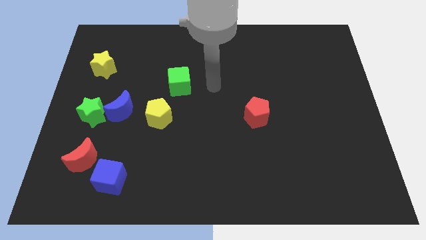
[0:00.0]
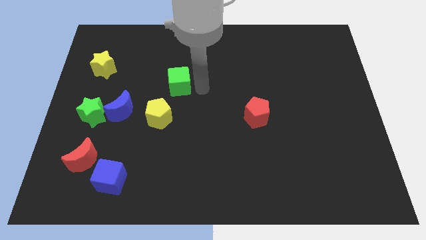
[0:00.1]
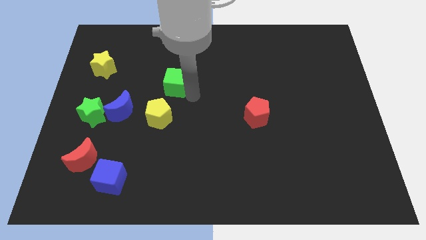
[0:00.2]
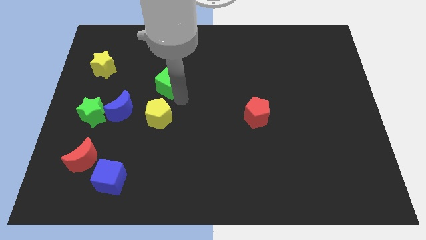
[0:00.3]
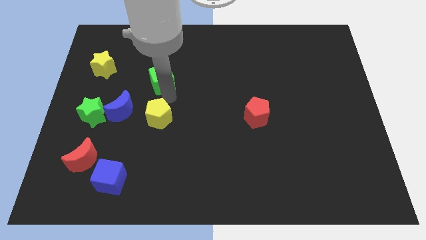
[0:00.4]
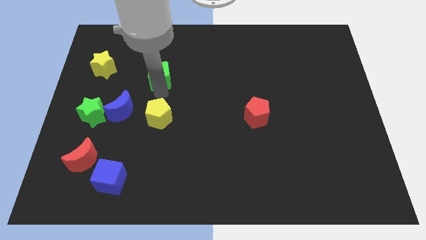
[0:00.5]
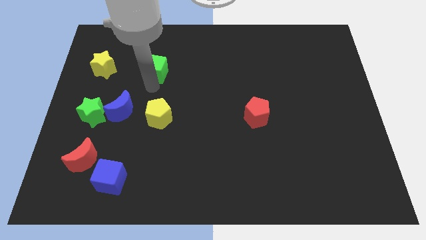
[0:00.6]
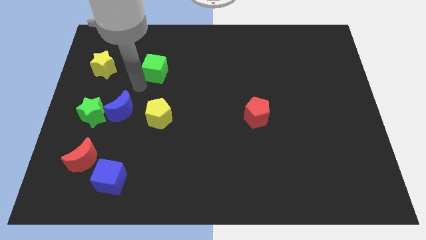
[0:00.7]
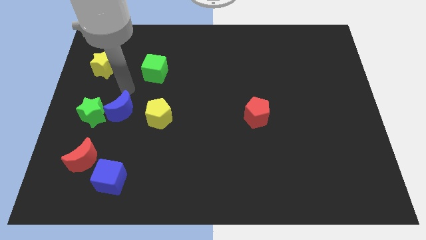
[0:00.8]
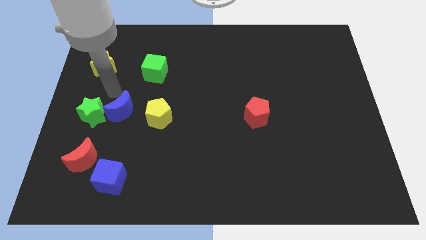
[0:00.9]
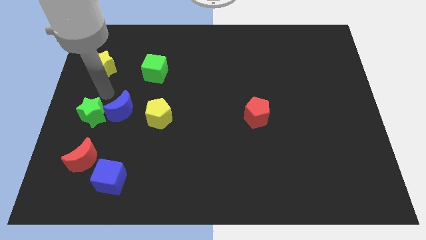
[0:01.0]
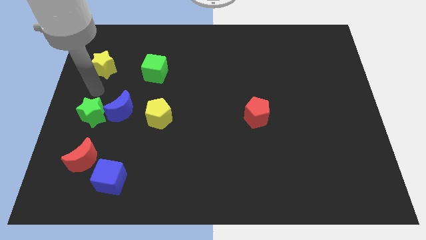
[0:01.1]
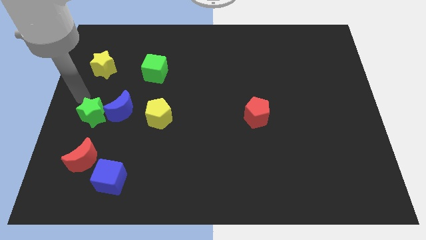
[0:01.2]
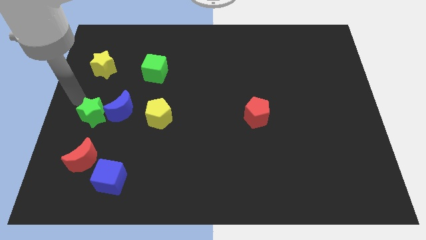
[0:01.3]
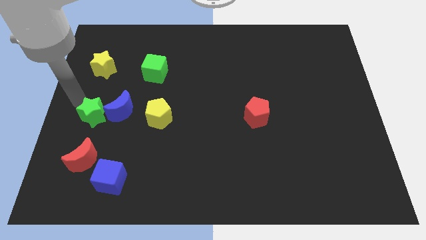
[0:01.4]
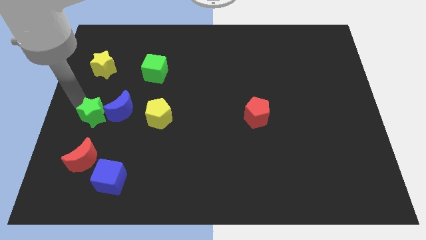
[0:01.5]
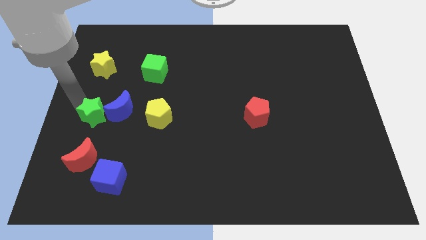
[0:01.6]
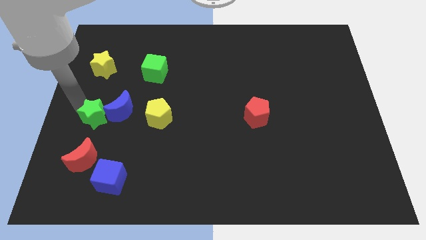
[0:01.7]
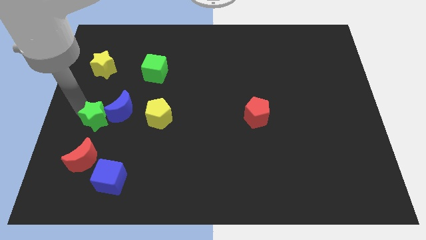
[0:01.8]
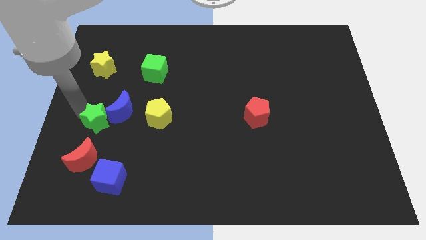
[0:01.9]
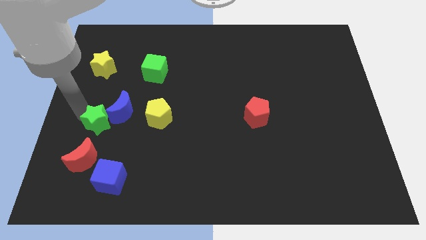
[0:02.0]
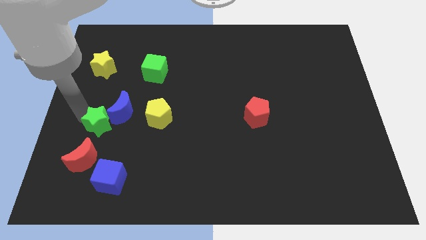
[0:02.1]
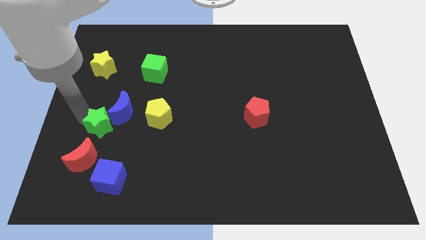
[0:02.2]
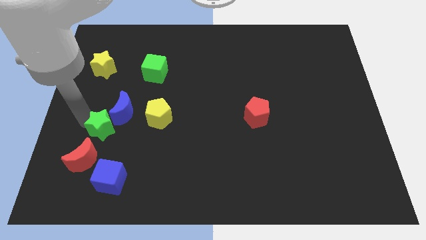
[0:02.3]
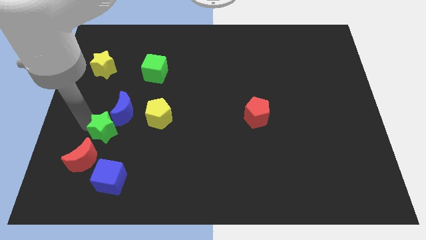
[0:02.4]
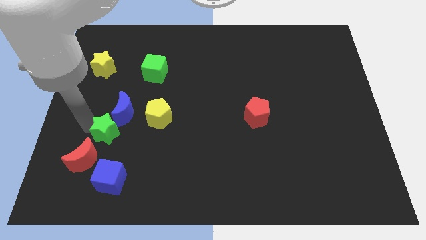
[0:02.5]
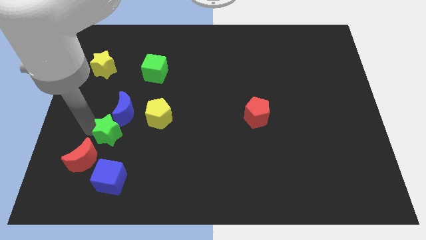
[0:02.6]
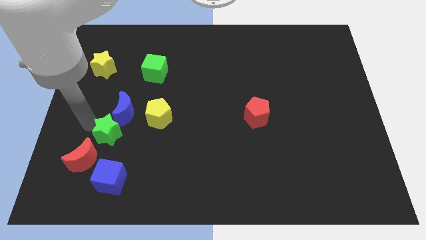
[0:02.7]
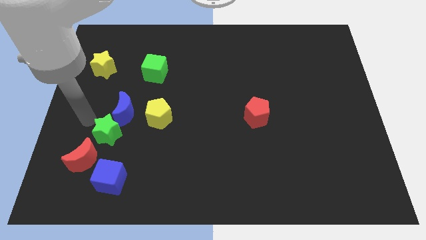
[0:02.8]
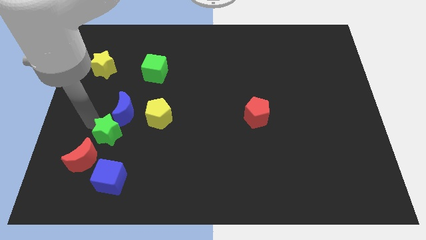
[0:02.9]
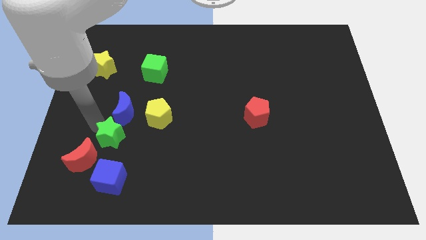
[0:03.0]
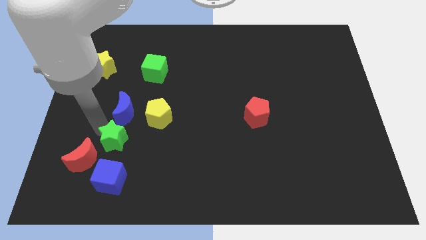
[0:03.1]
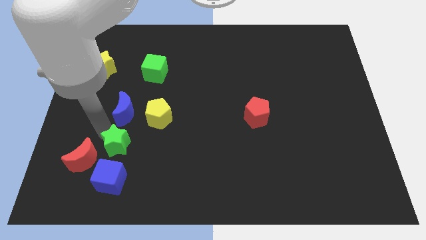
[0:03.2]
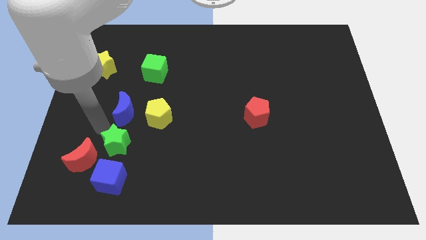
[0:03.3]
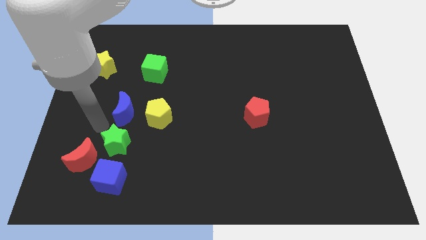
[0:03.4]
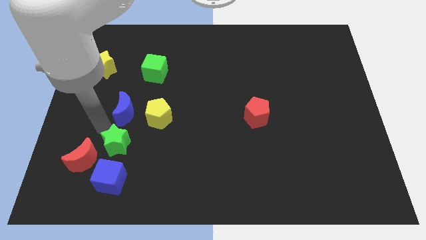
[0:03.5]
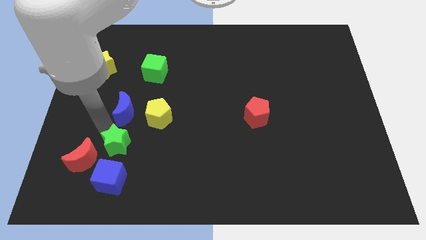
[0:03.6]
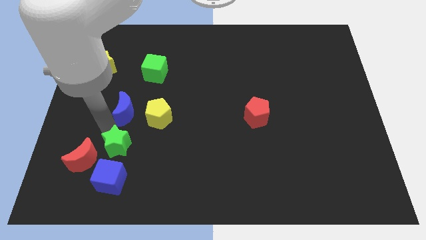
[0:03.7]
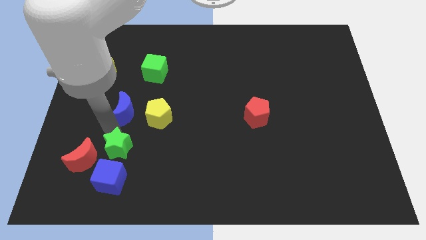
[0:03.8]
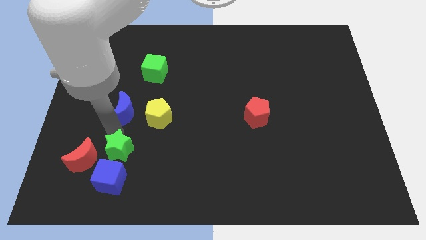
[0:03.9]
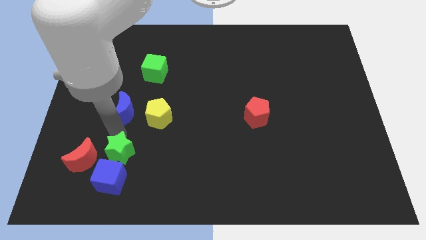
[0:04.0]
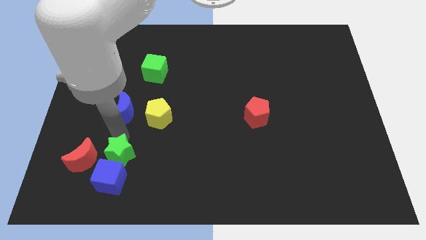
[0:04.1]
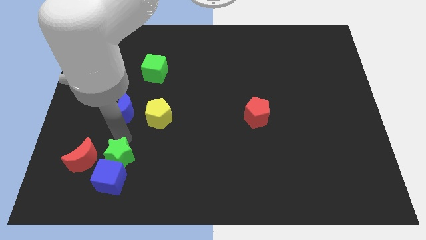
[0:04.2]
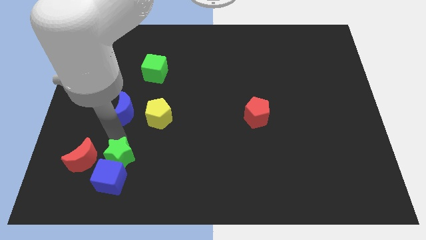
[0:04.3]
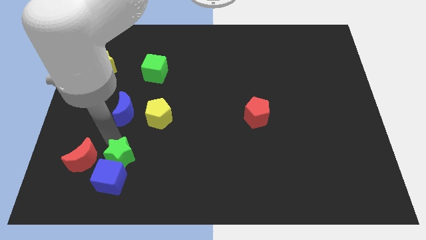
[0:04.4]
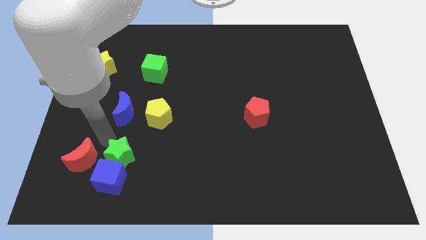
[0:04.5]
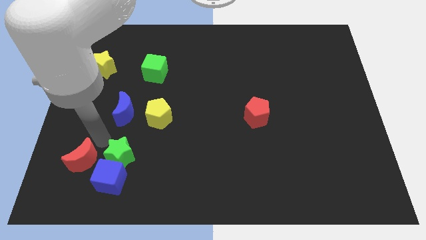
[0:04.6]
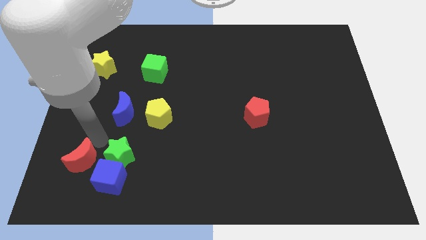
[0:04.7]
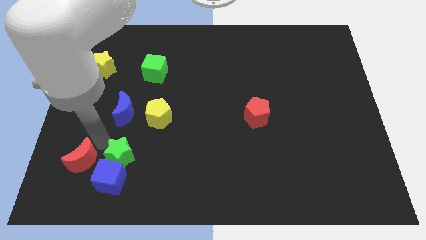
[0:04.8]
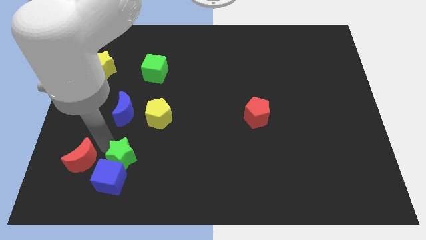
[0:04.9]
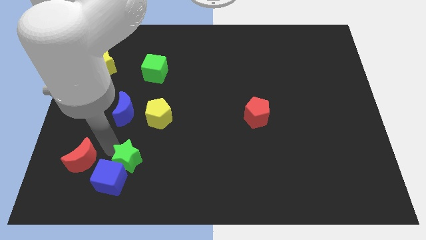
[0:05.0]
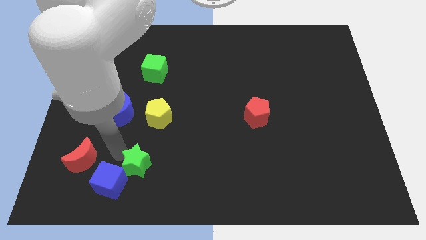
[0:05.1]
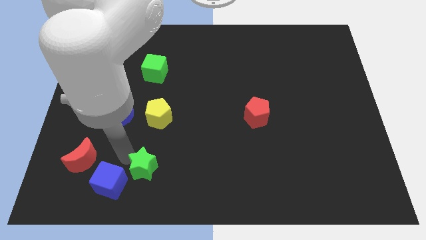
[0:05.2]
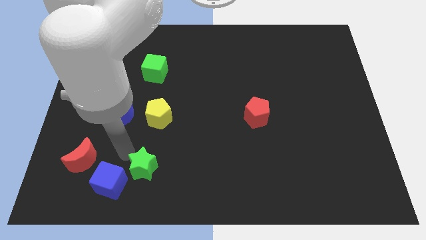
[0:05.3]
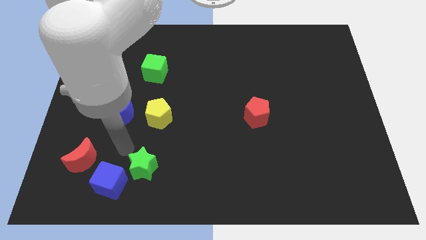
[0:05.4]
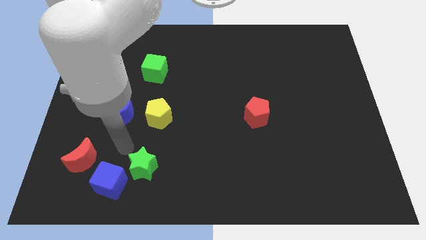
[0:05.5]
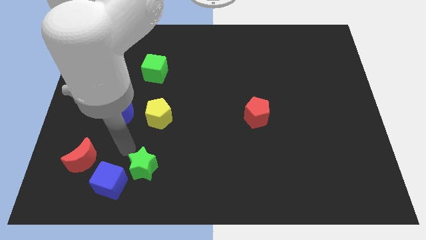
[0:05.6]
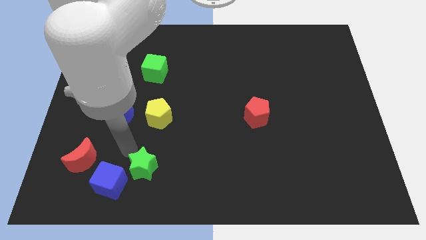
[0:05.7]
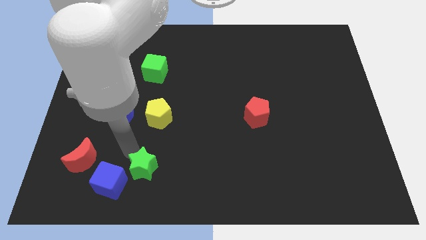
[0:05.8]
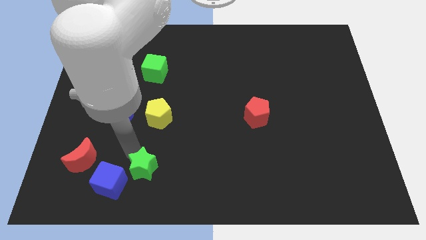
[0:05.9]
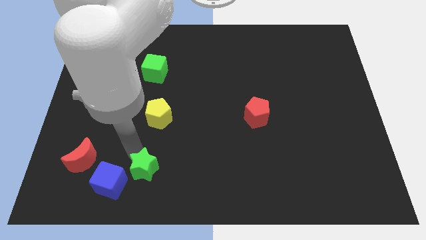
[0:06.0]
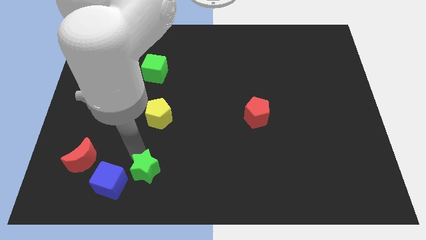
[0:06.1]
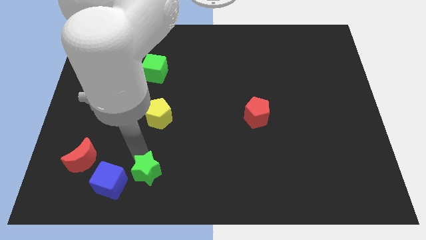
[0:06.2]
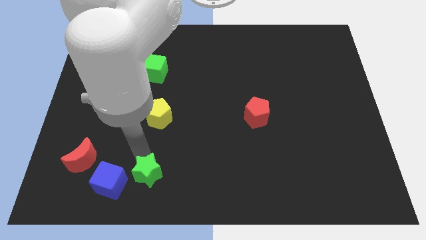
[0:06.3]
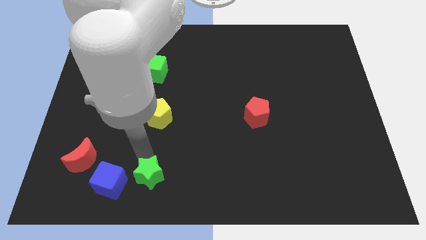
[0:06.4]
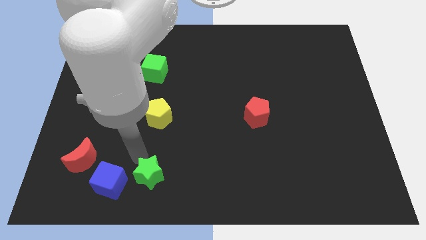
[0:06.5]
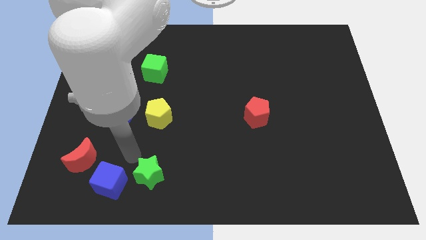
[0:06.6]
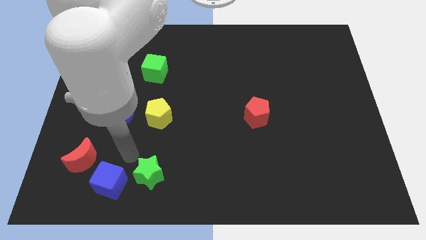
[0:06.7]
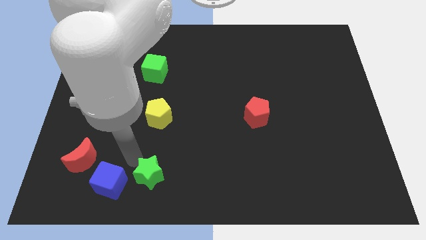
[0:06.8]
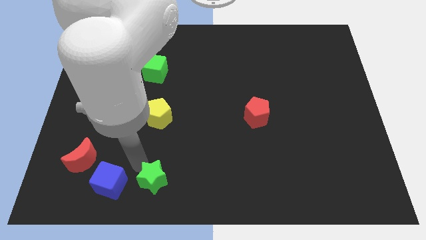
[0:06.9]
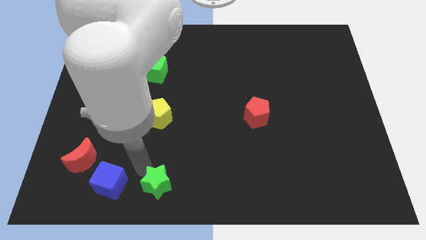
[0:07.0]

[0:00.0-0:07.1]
move the green star to the bottom side
